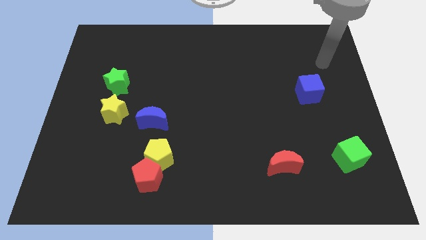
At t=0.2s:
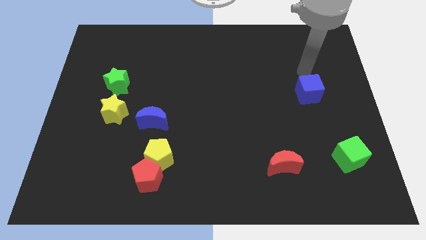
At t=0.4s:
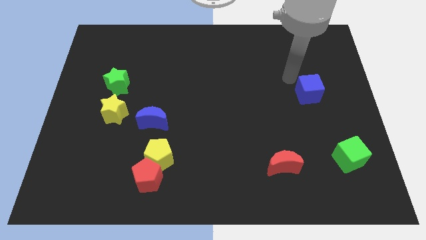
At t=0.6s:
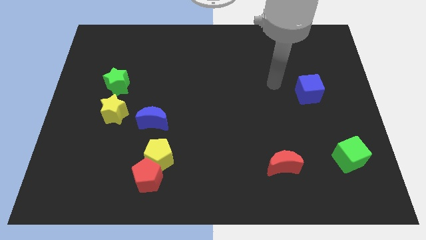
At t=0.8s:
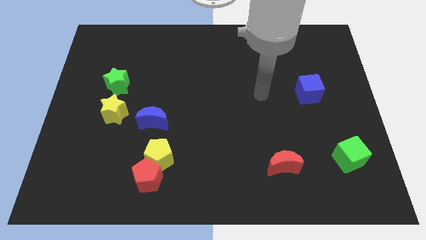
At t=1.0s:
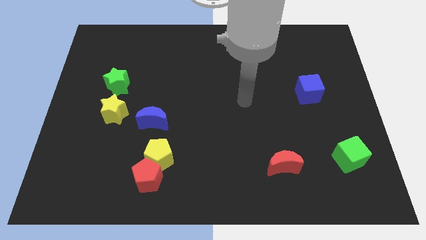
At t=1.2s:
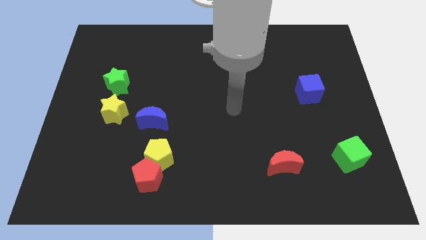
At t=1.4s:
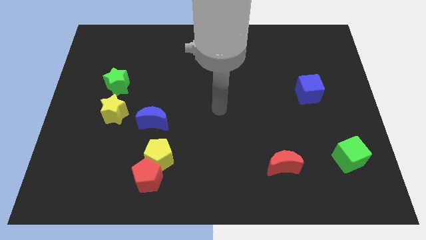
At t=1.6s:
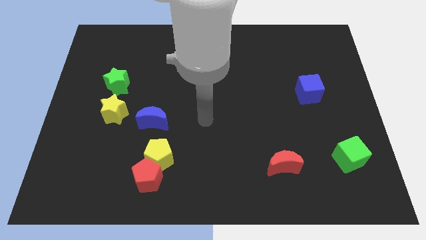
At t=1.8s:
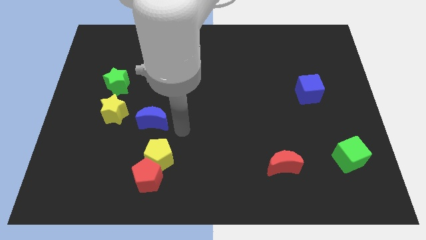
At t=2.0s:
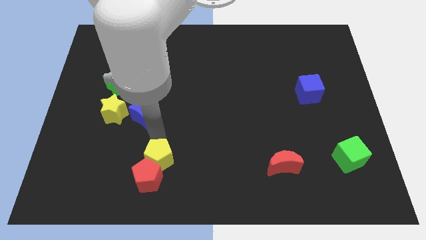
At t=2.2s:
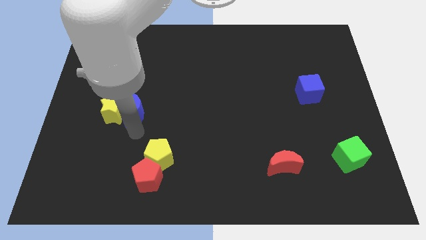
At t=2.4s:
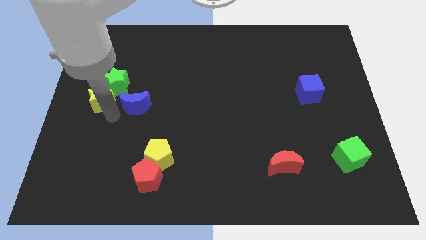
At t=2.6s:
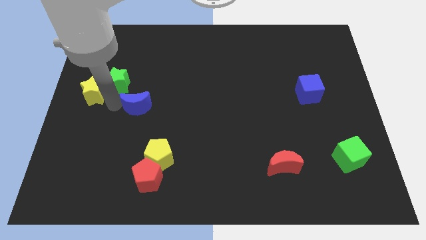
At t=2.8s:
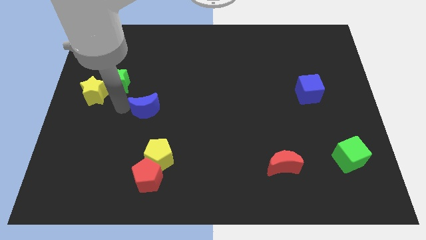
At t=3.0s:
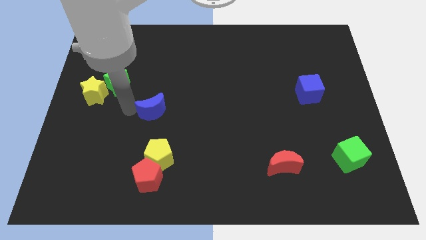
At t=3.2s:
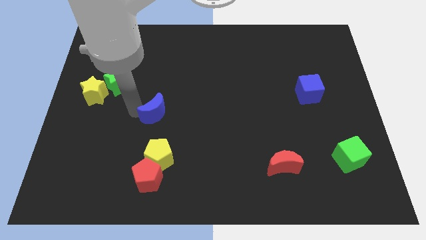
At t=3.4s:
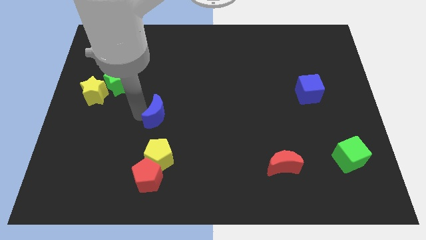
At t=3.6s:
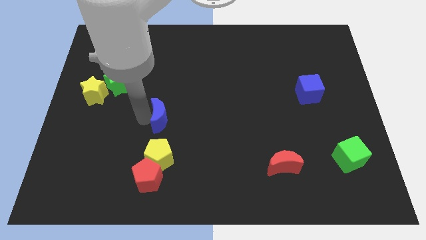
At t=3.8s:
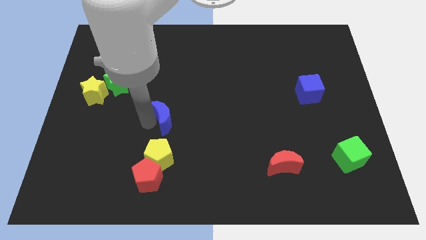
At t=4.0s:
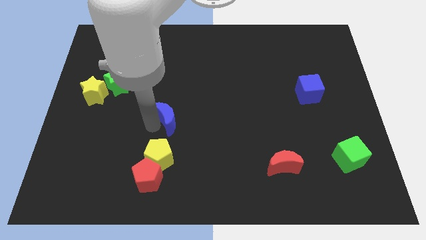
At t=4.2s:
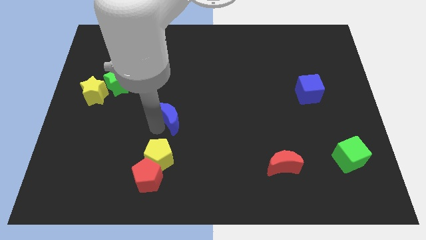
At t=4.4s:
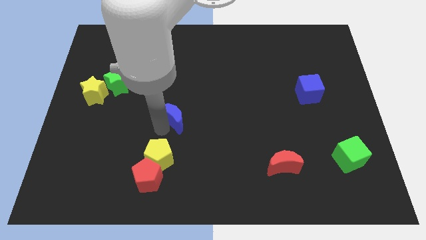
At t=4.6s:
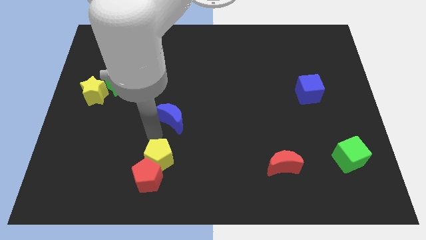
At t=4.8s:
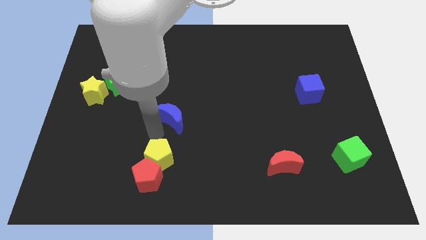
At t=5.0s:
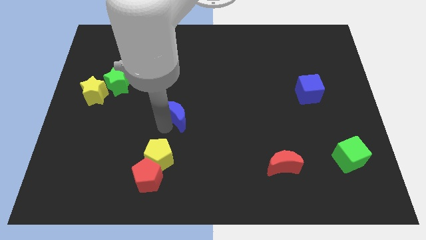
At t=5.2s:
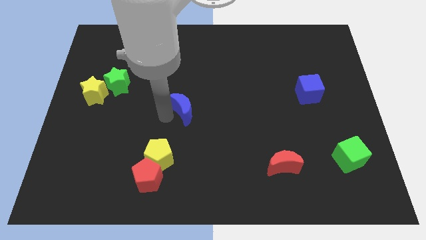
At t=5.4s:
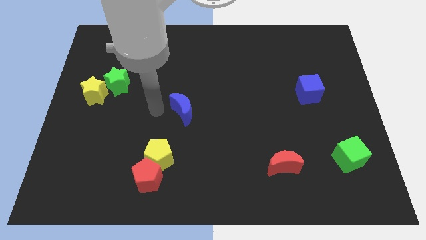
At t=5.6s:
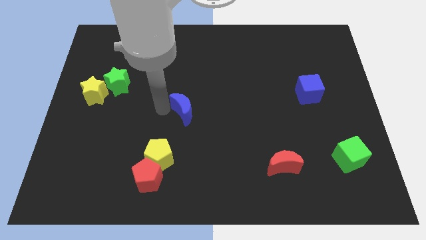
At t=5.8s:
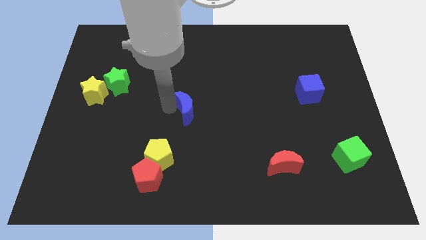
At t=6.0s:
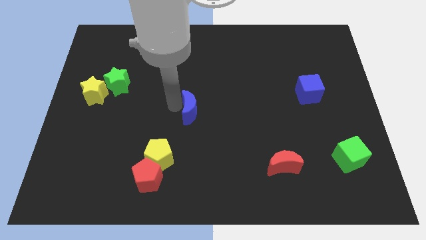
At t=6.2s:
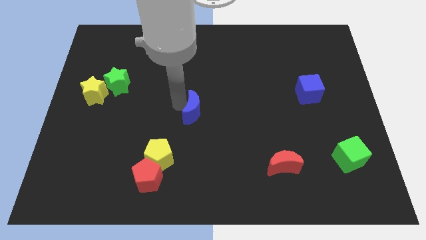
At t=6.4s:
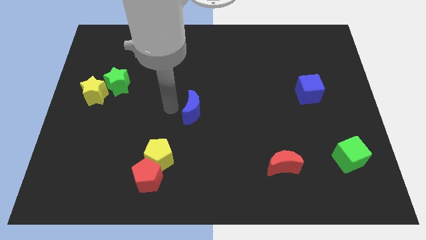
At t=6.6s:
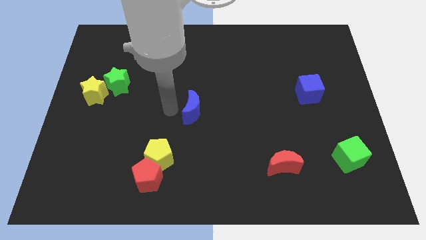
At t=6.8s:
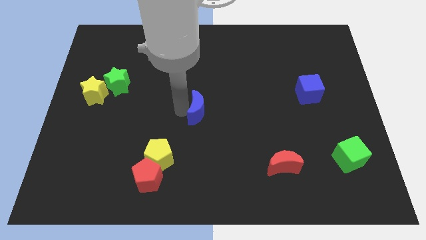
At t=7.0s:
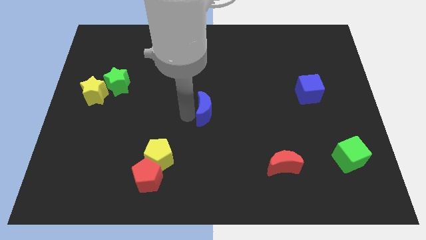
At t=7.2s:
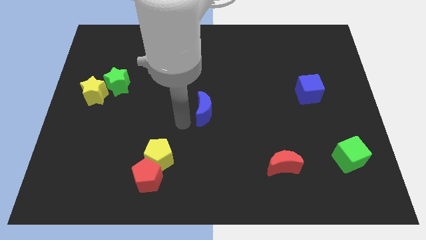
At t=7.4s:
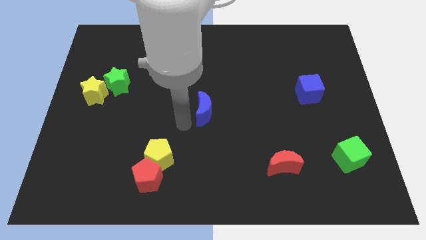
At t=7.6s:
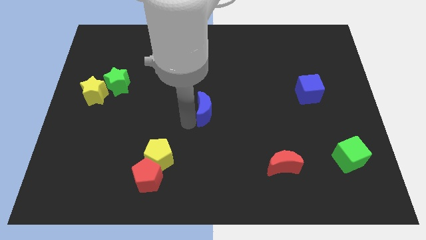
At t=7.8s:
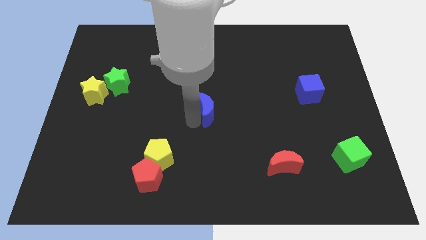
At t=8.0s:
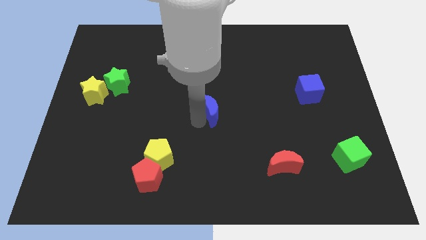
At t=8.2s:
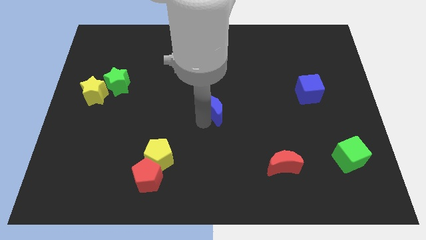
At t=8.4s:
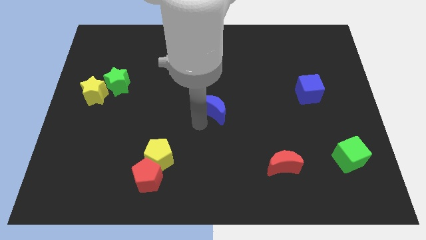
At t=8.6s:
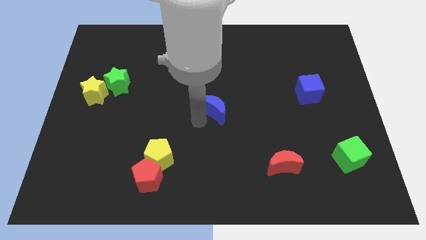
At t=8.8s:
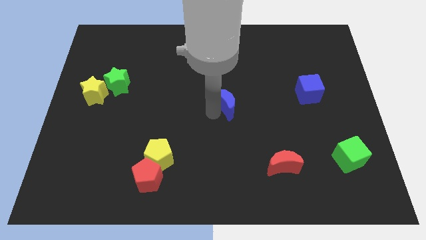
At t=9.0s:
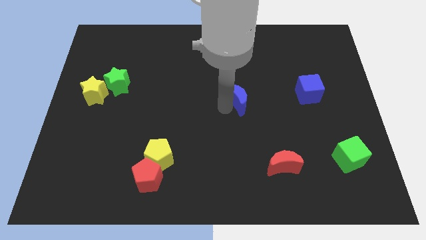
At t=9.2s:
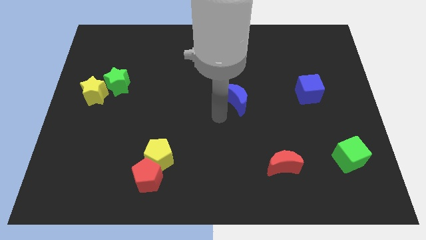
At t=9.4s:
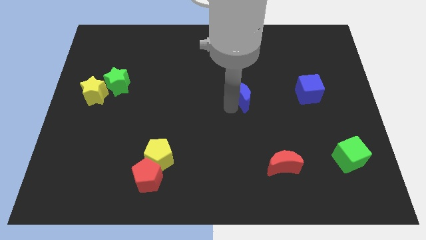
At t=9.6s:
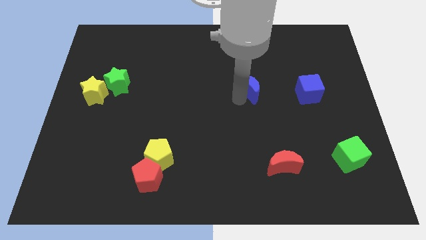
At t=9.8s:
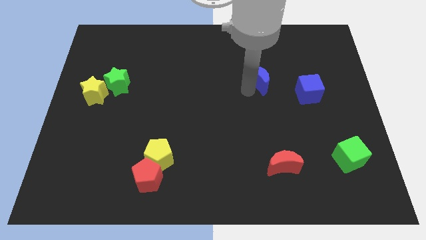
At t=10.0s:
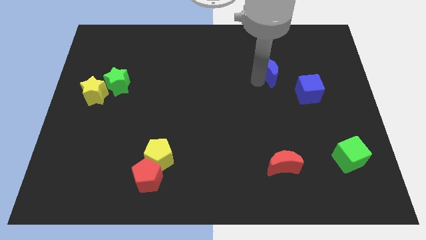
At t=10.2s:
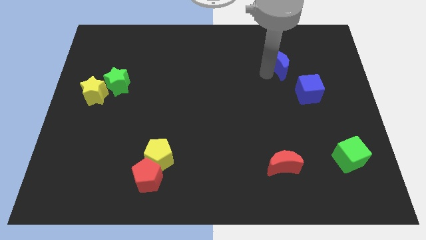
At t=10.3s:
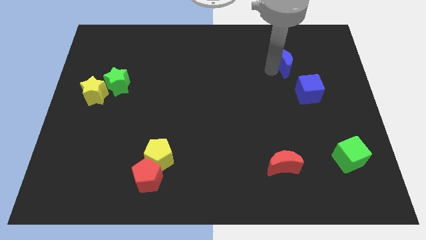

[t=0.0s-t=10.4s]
slide the blue moon to the top of the blue cube
